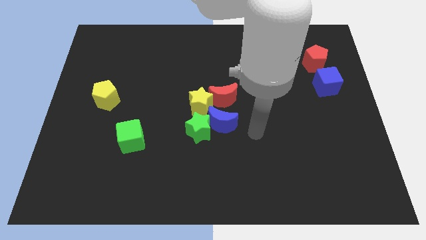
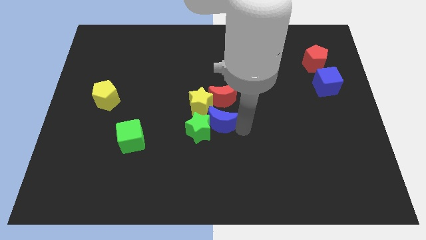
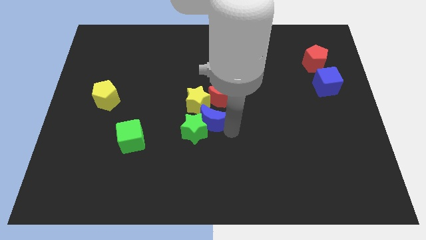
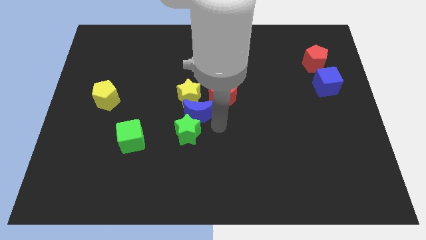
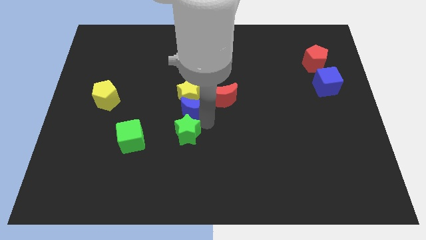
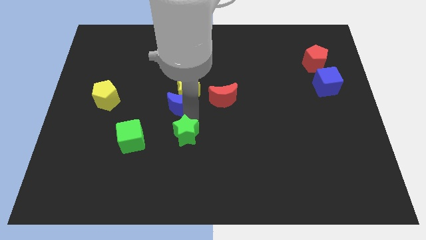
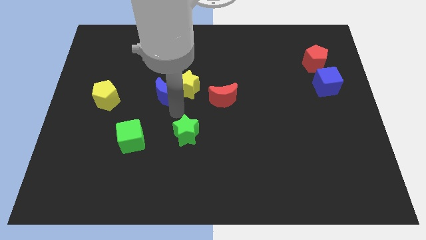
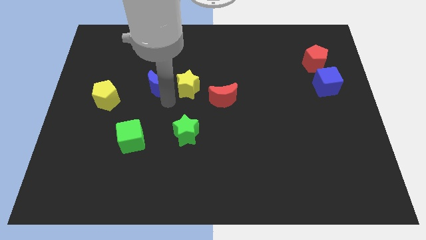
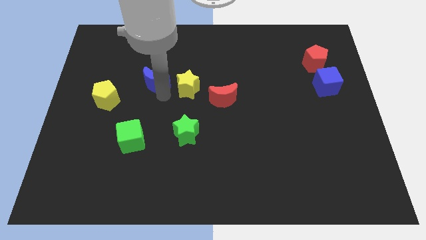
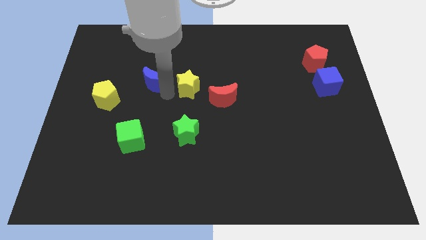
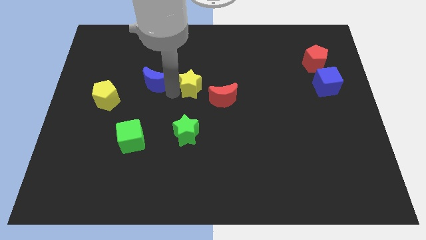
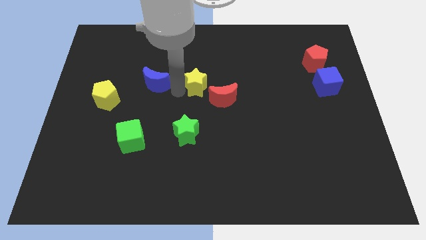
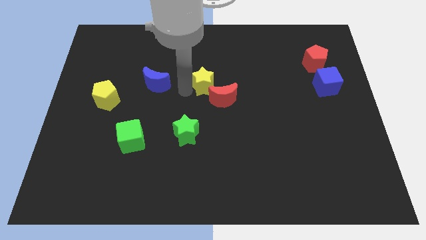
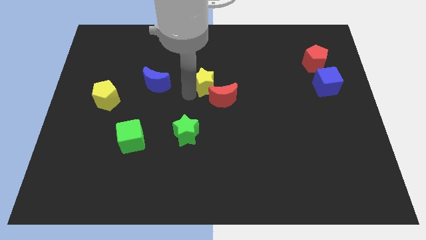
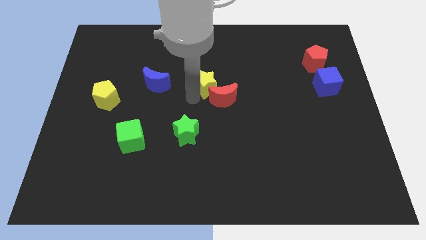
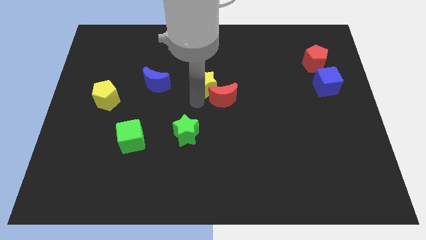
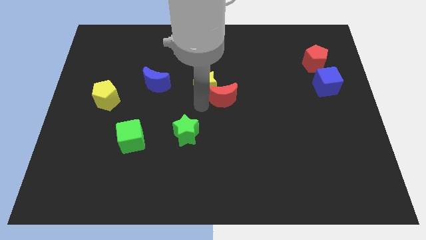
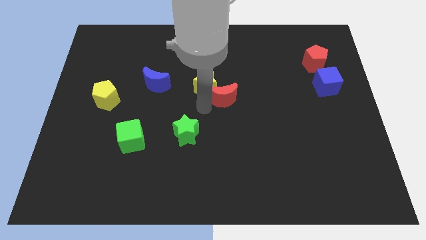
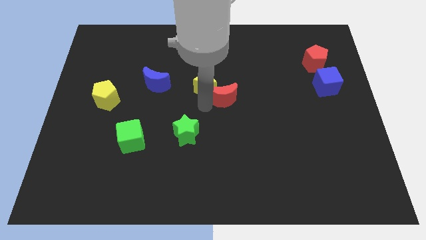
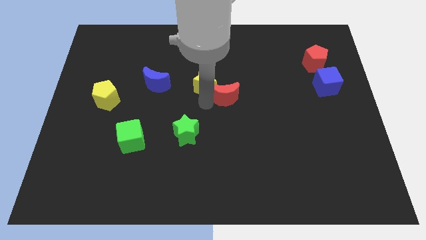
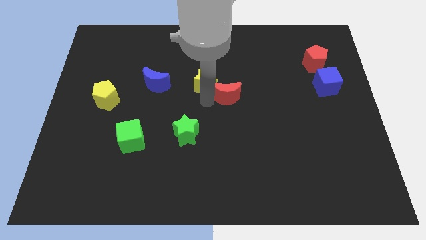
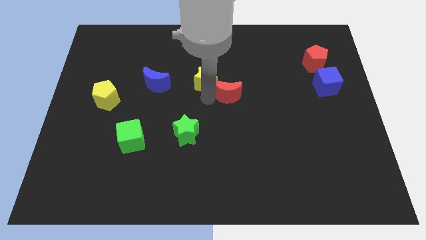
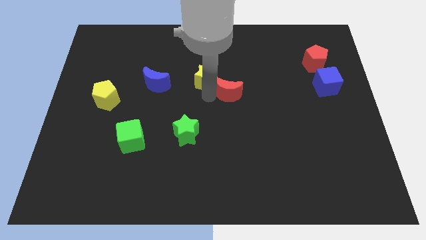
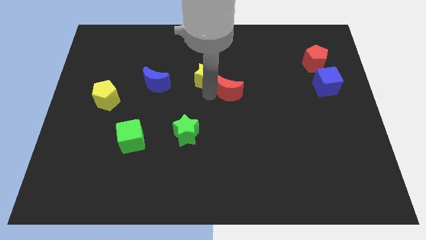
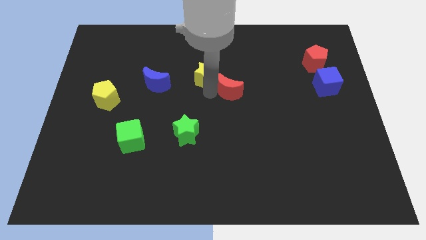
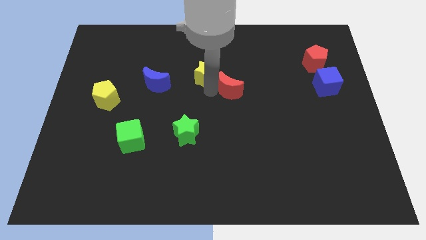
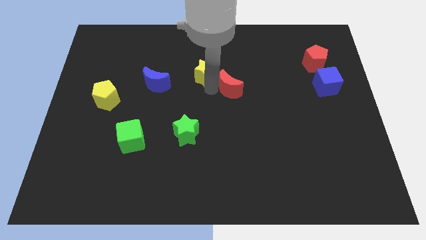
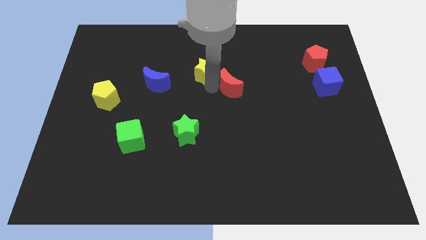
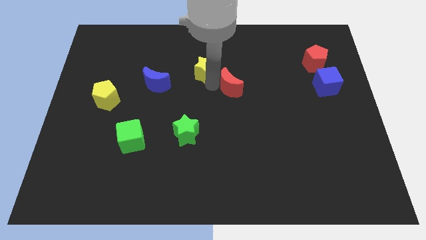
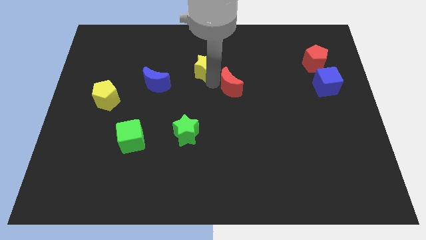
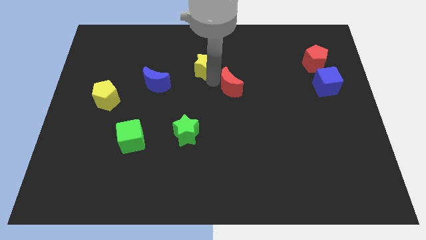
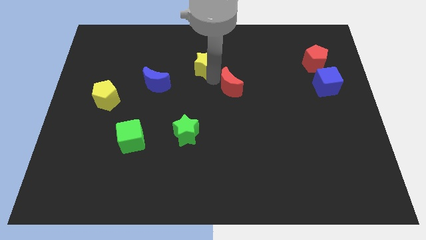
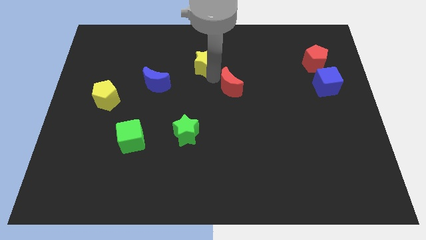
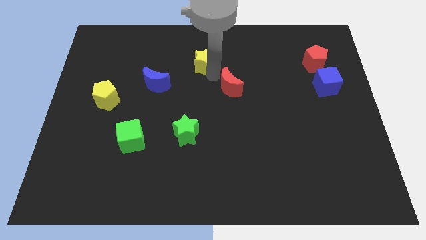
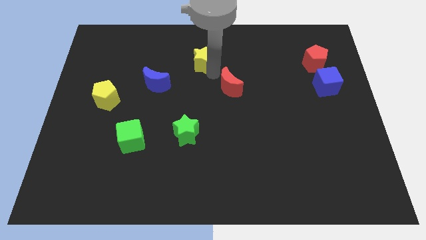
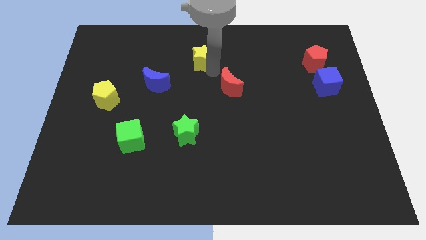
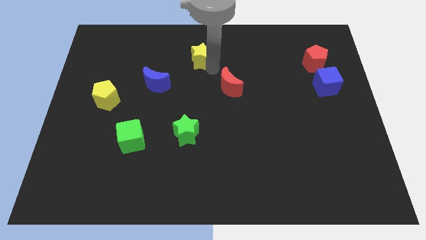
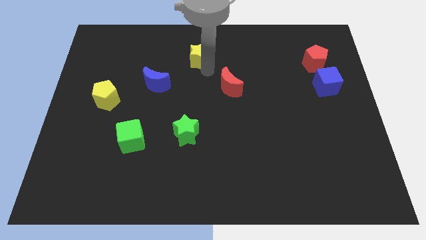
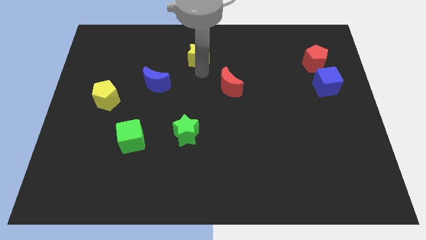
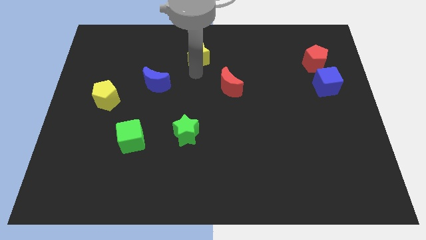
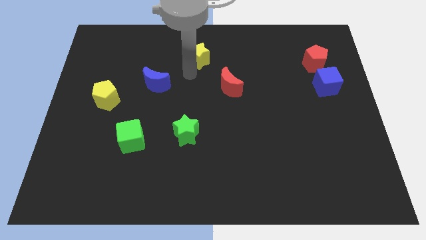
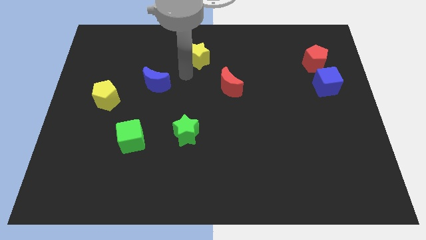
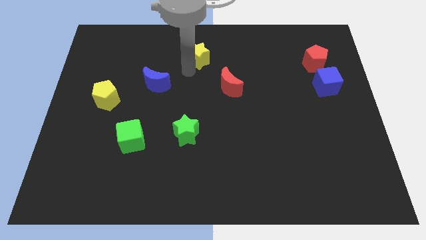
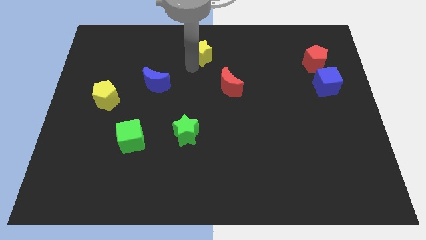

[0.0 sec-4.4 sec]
slide the yellow star to the towards your base

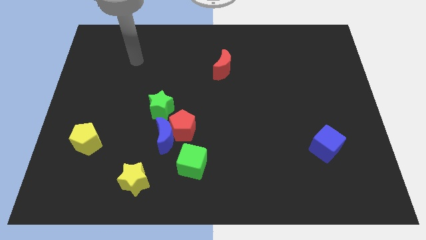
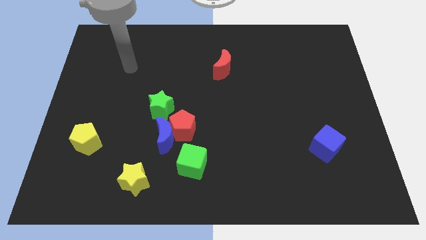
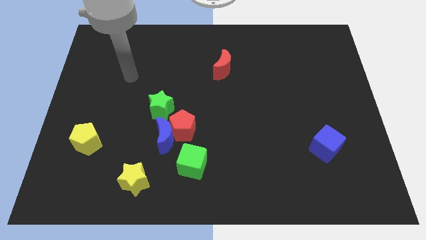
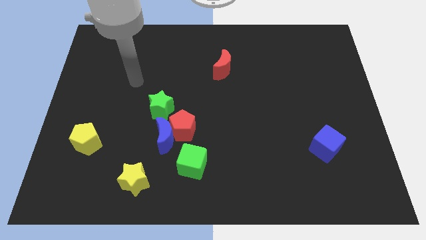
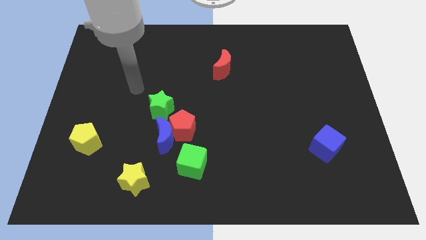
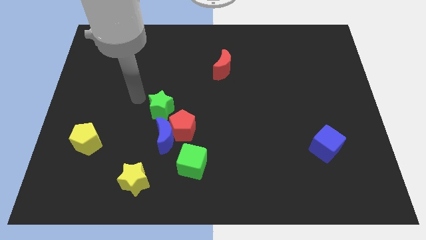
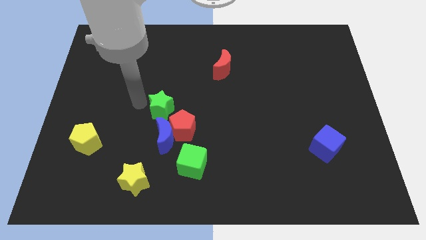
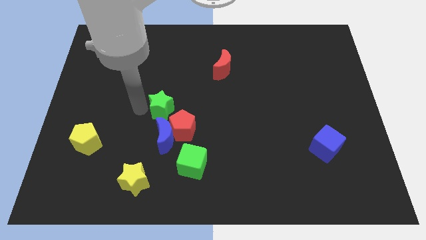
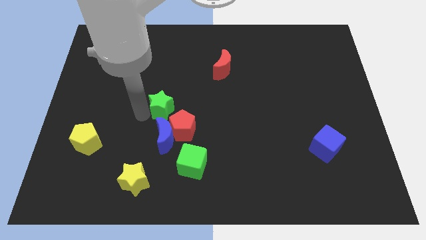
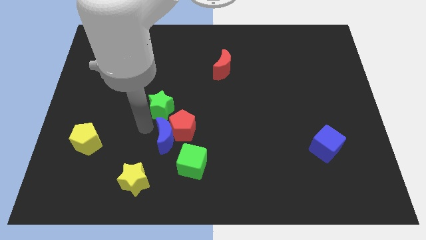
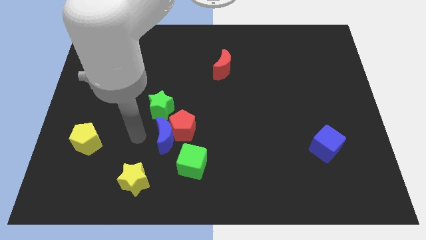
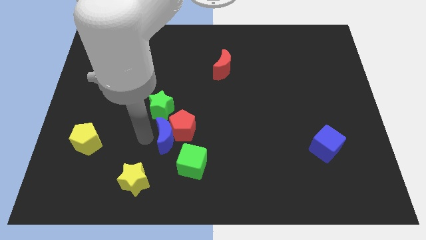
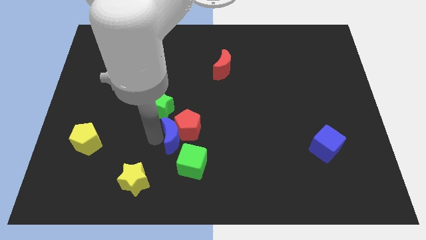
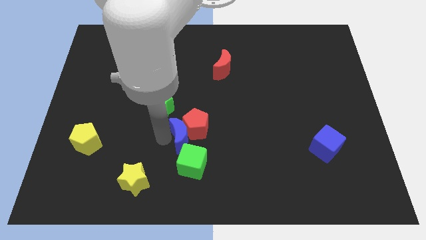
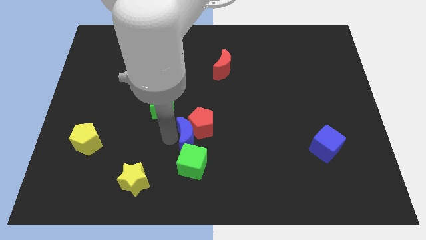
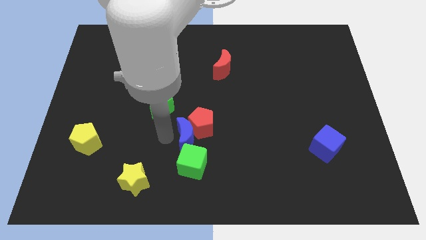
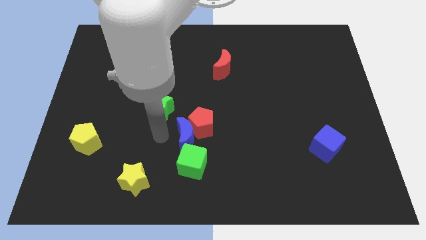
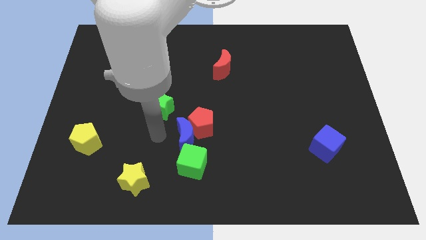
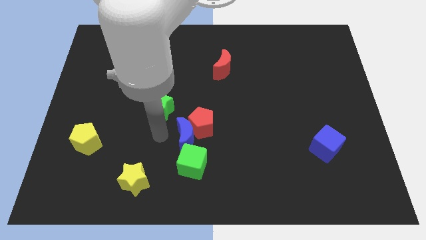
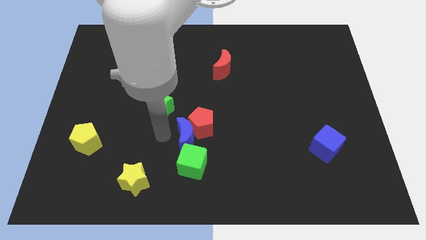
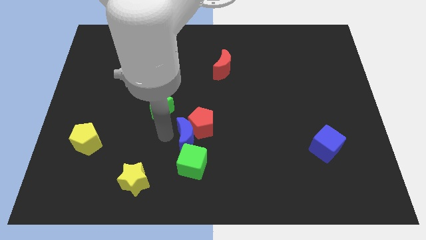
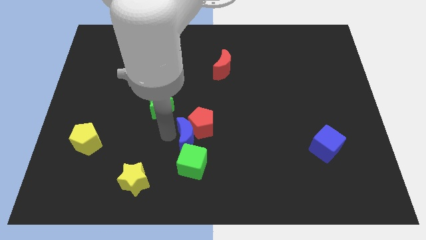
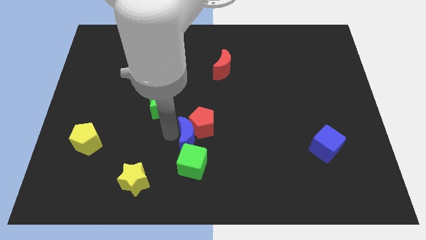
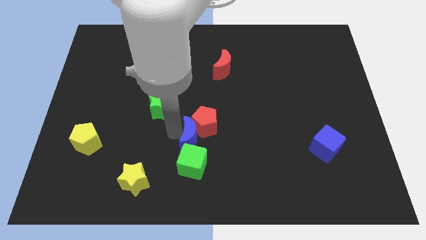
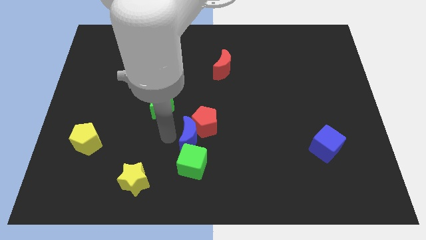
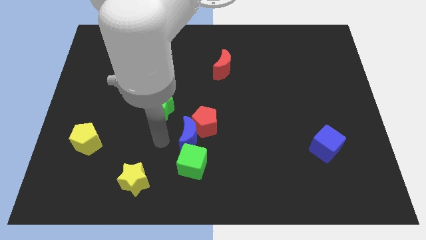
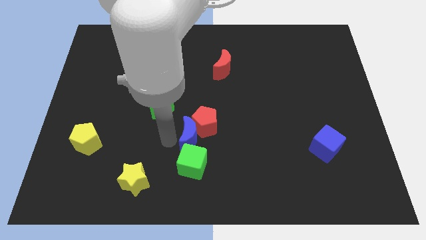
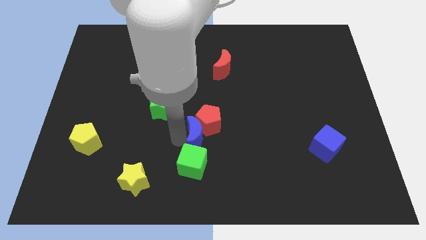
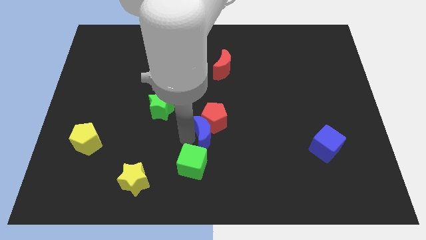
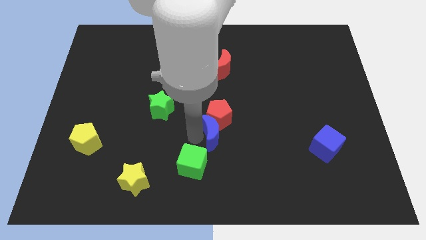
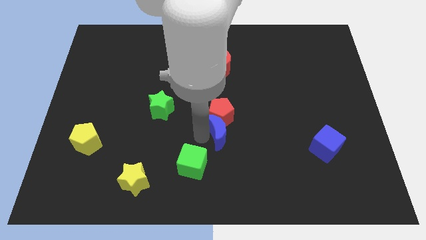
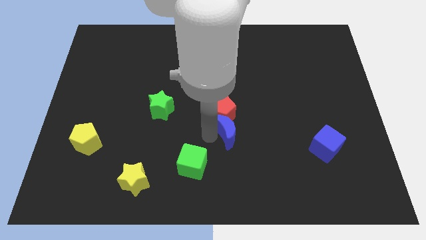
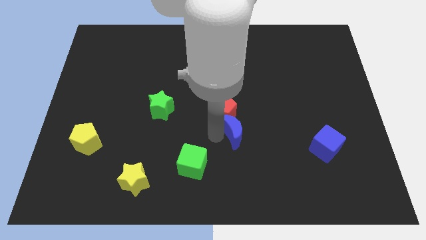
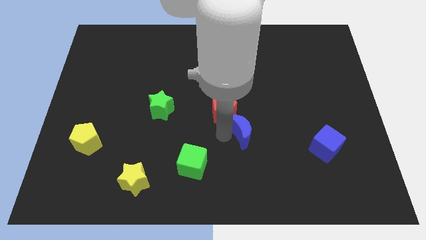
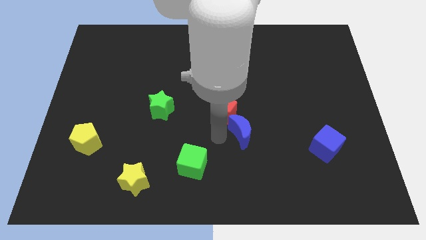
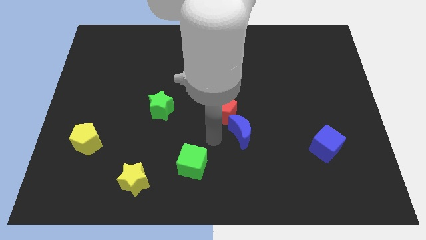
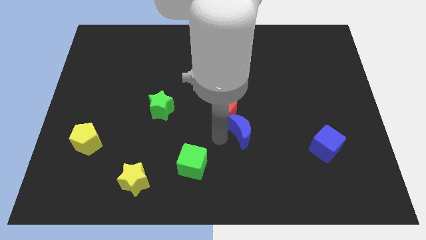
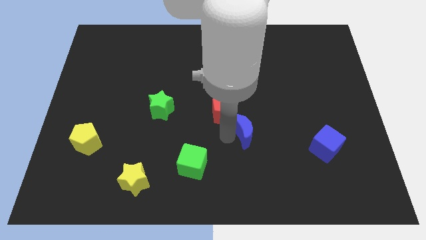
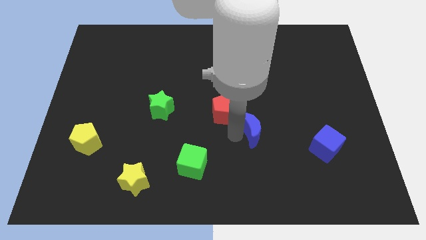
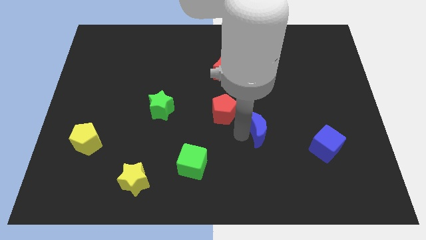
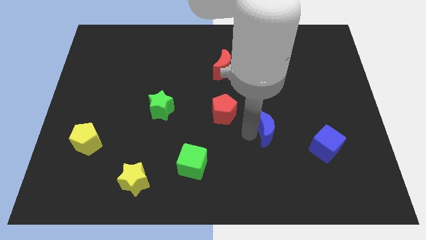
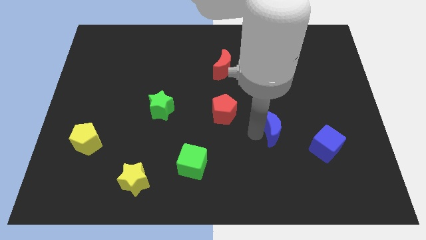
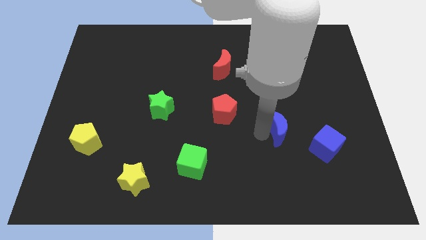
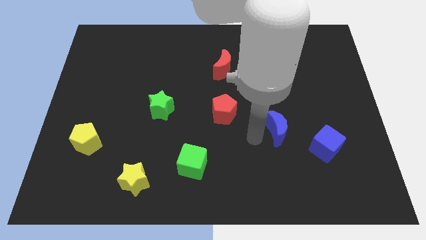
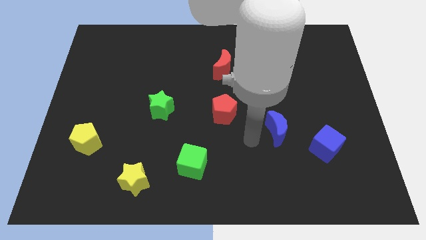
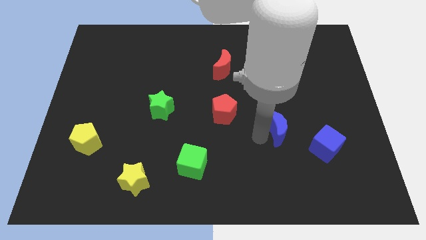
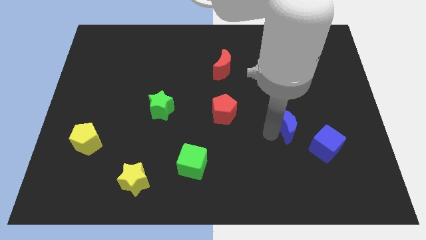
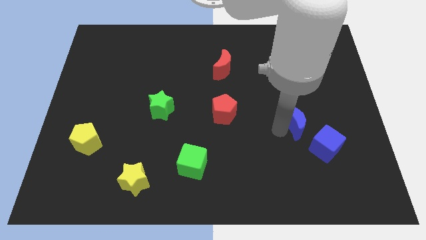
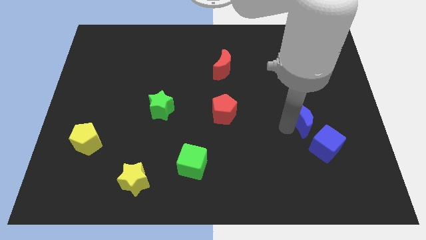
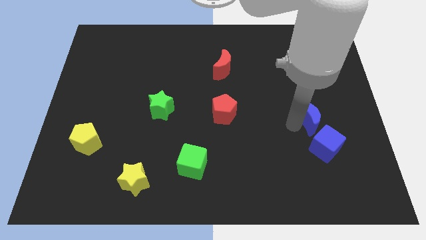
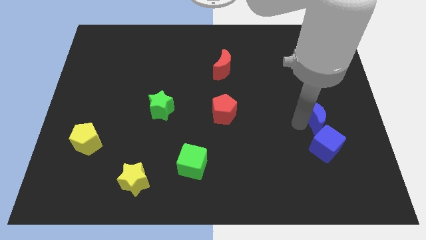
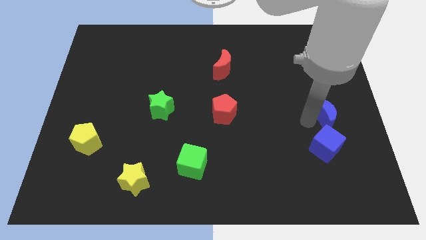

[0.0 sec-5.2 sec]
move the blue moon to the right side of the board
